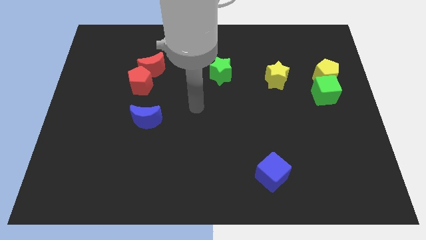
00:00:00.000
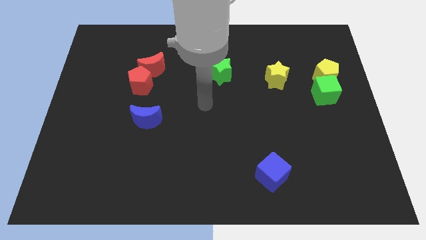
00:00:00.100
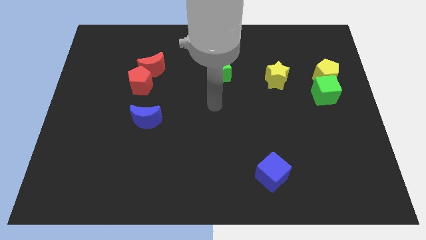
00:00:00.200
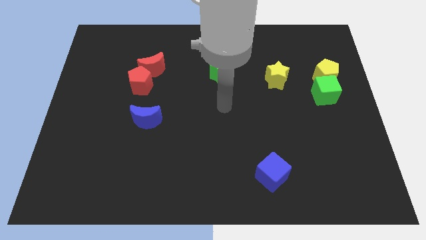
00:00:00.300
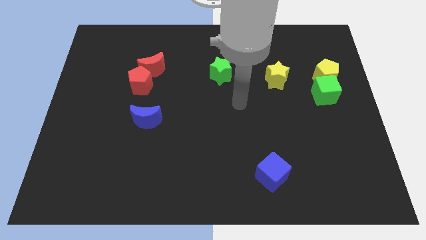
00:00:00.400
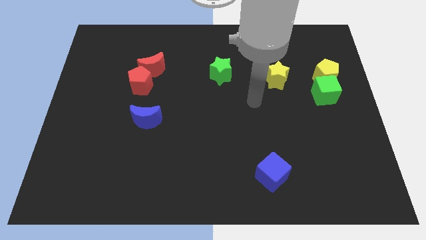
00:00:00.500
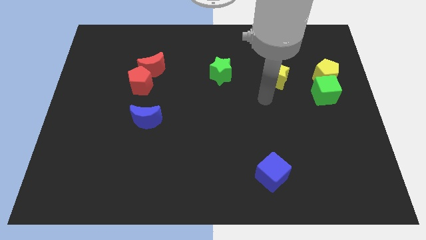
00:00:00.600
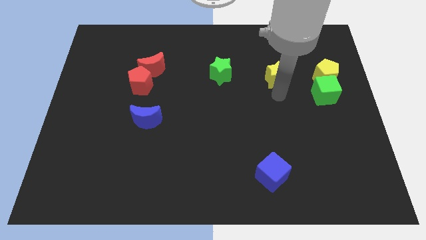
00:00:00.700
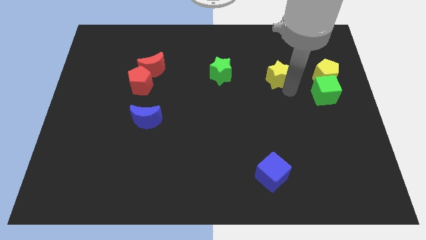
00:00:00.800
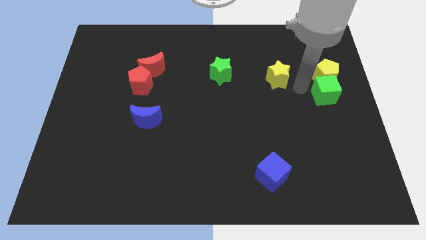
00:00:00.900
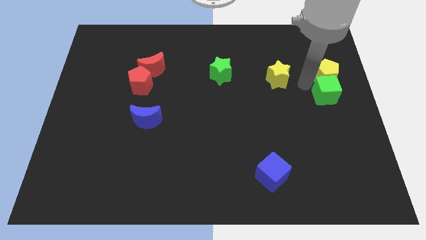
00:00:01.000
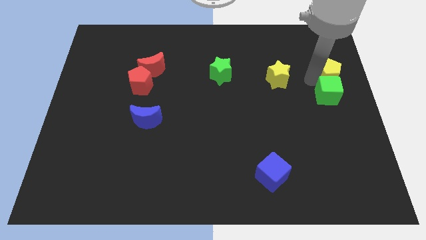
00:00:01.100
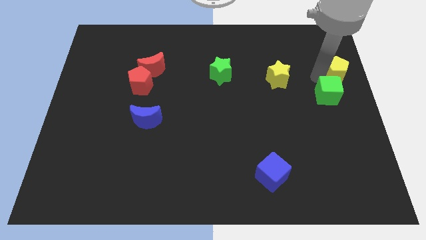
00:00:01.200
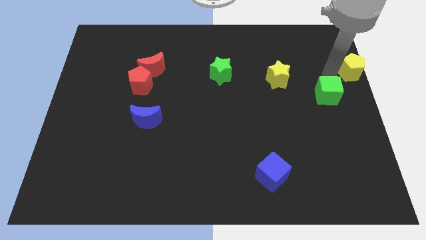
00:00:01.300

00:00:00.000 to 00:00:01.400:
separate the green cube from the yellow pentagon

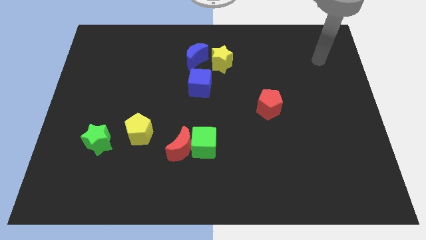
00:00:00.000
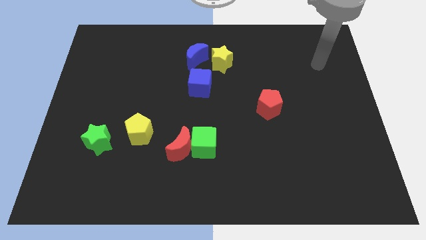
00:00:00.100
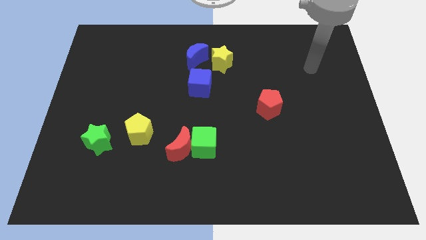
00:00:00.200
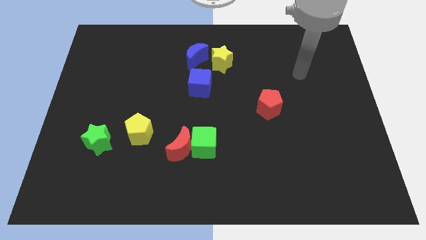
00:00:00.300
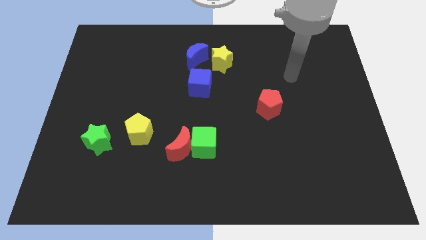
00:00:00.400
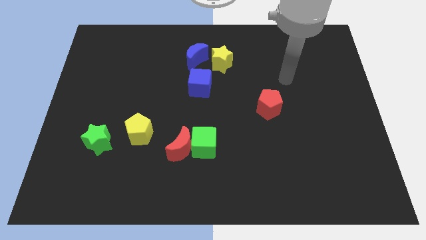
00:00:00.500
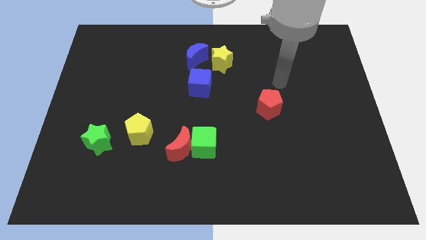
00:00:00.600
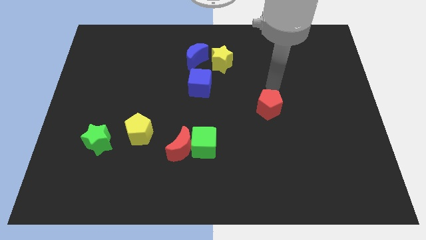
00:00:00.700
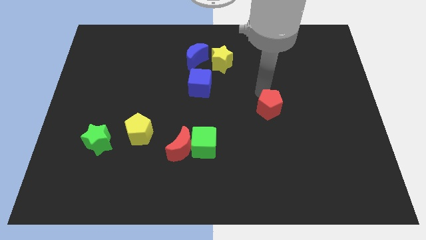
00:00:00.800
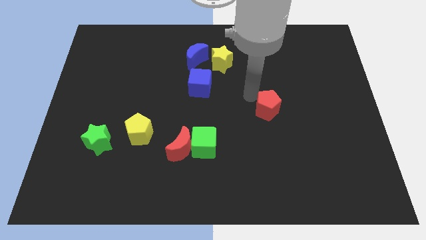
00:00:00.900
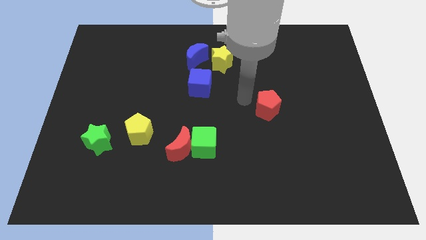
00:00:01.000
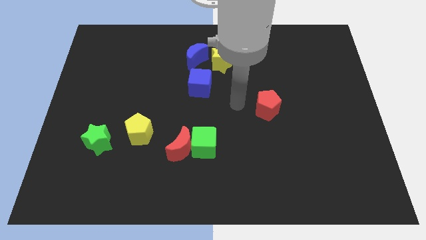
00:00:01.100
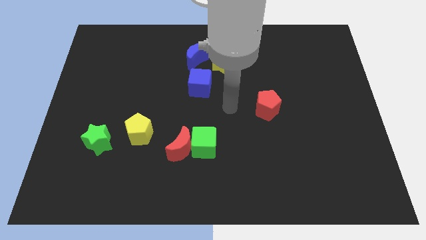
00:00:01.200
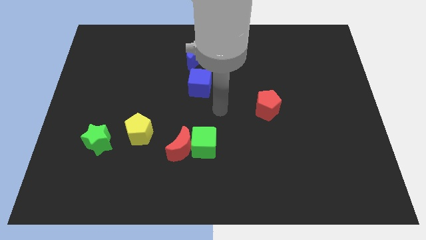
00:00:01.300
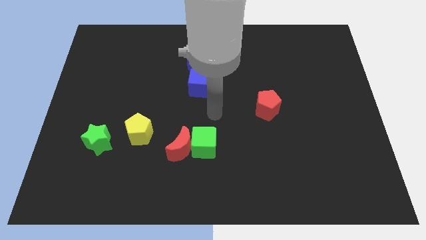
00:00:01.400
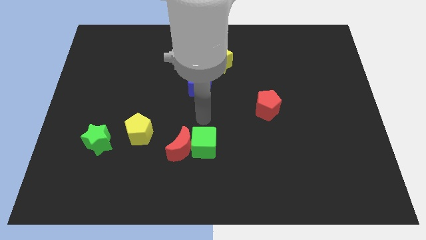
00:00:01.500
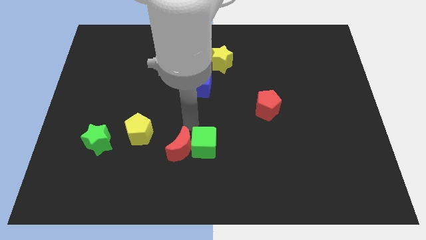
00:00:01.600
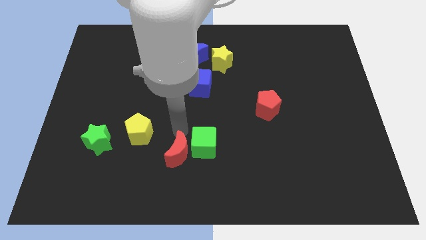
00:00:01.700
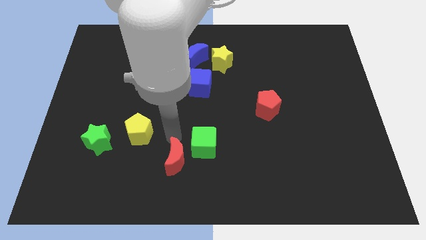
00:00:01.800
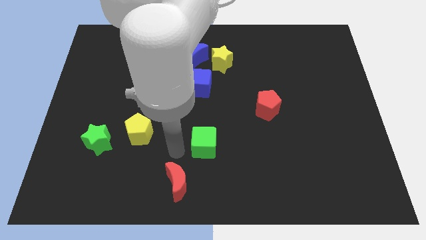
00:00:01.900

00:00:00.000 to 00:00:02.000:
separate the green cube from the red moon

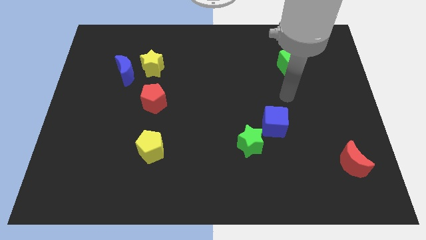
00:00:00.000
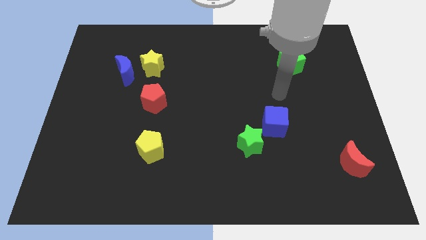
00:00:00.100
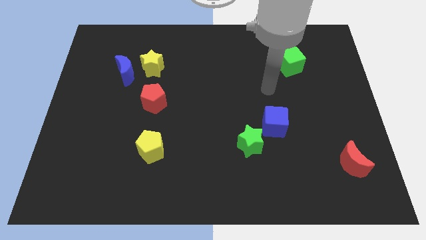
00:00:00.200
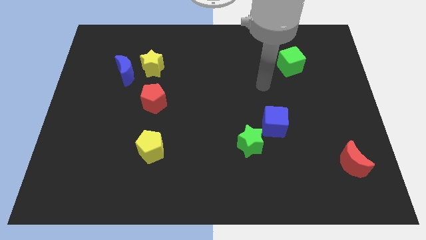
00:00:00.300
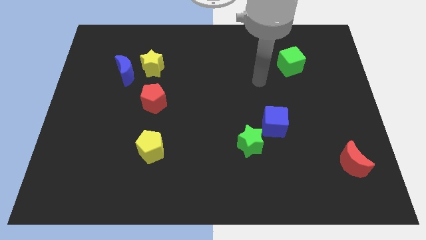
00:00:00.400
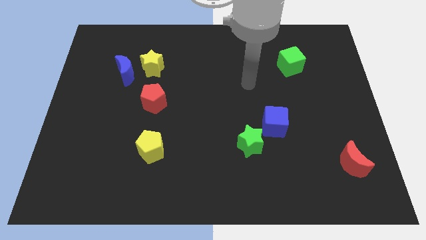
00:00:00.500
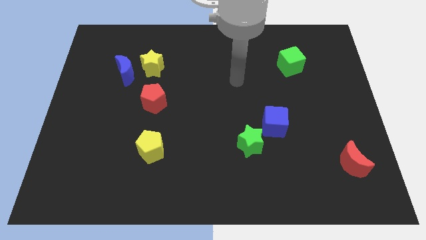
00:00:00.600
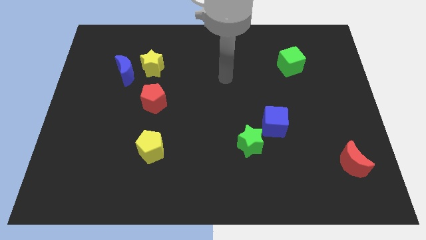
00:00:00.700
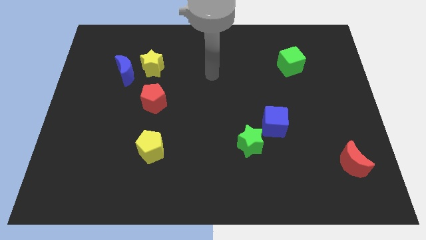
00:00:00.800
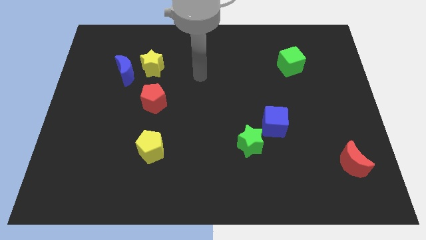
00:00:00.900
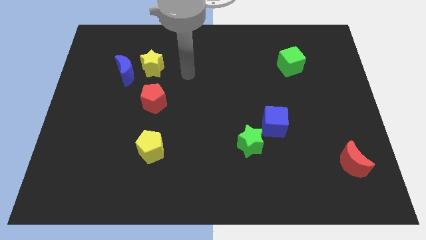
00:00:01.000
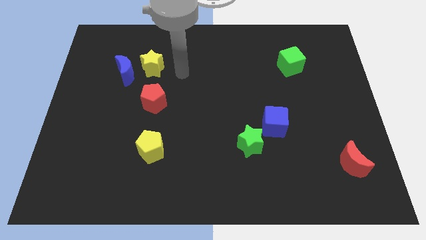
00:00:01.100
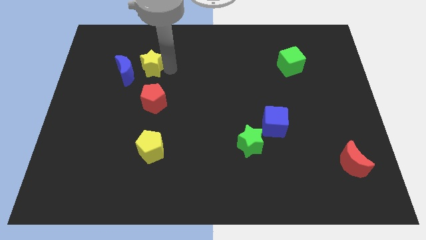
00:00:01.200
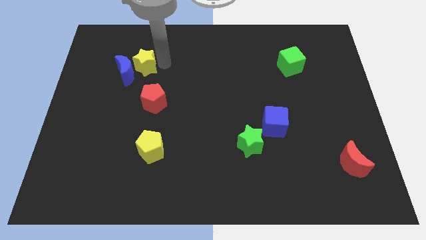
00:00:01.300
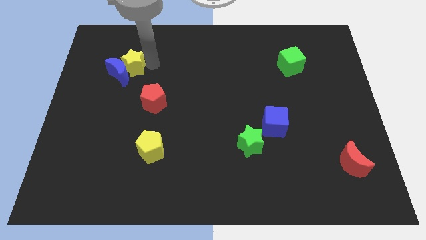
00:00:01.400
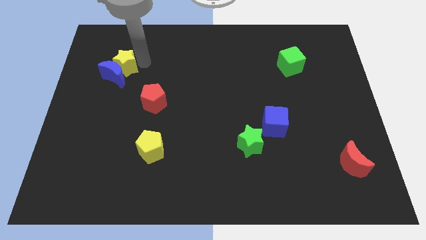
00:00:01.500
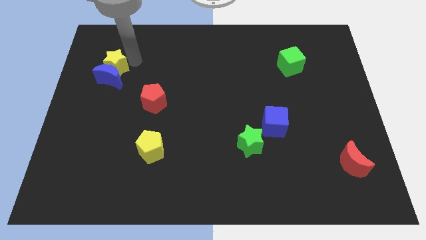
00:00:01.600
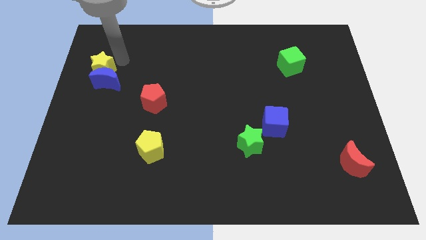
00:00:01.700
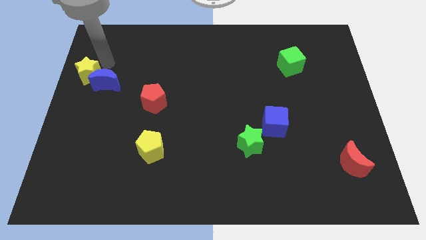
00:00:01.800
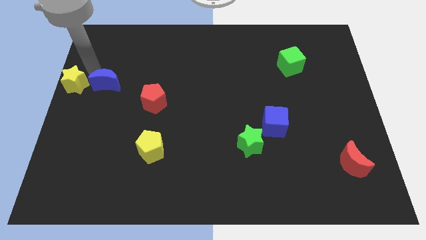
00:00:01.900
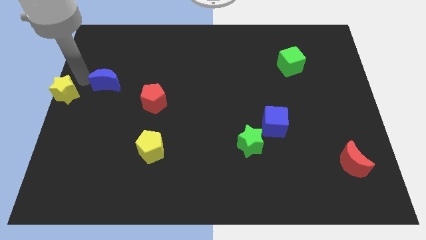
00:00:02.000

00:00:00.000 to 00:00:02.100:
pull the blue moon apart from the yellow star

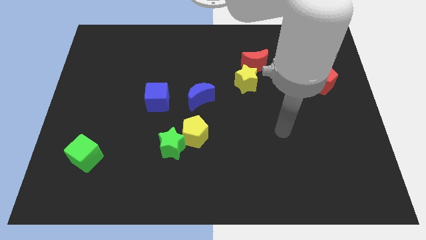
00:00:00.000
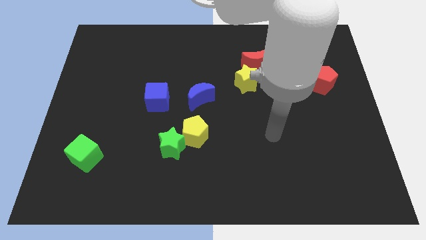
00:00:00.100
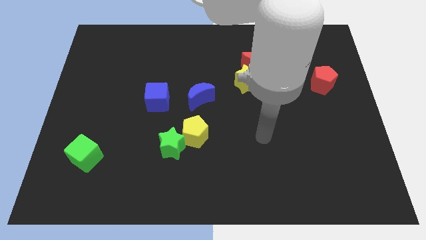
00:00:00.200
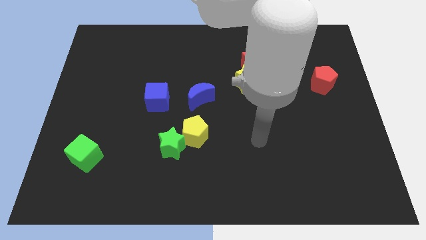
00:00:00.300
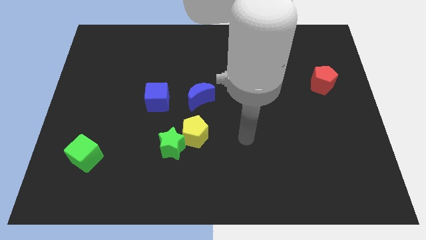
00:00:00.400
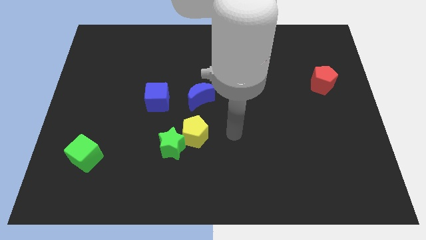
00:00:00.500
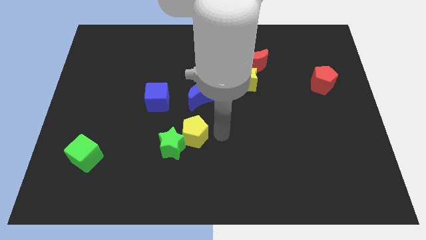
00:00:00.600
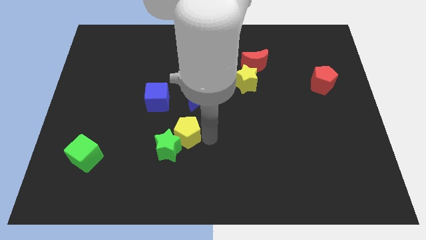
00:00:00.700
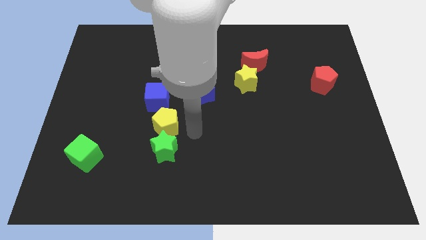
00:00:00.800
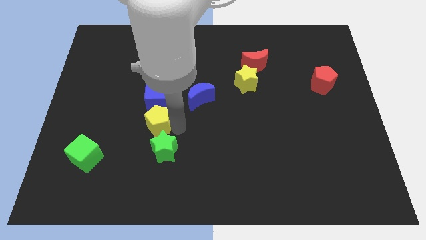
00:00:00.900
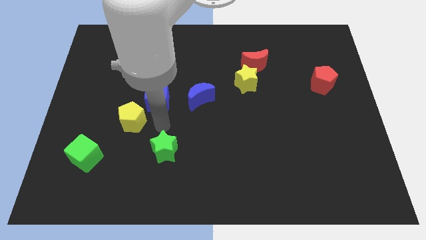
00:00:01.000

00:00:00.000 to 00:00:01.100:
move the green star away from the yellow pentagon

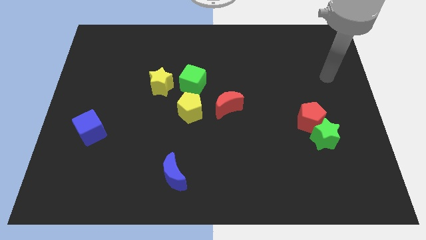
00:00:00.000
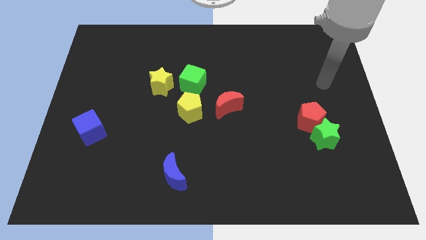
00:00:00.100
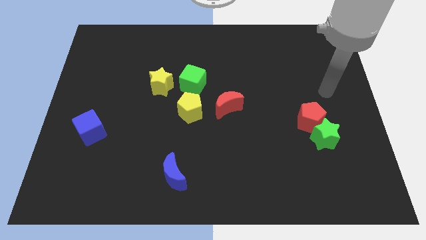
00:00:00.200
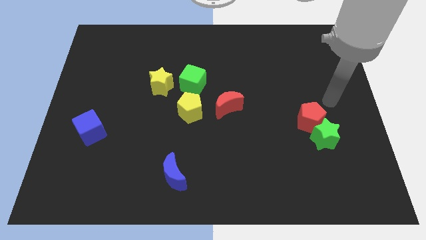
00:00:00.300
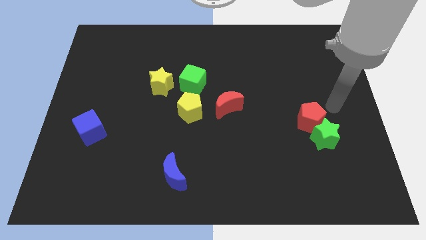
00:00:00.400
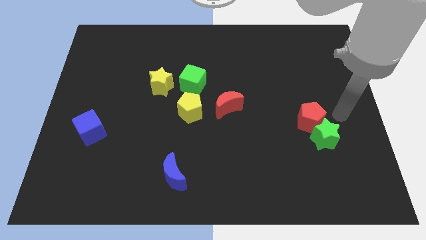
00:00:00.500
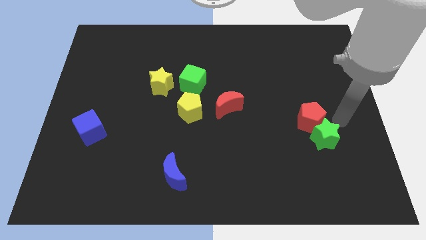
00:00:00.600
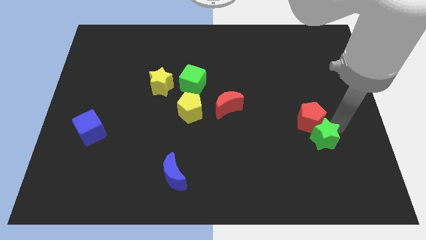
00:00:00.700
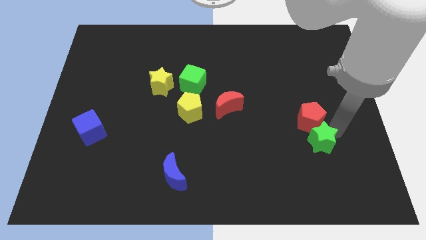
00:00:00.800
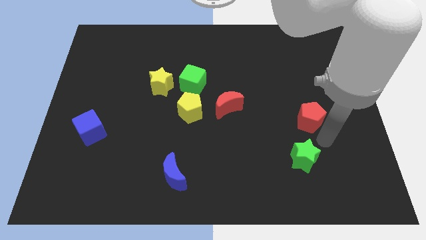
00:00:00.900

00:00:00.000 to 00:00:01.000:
pull the red pentagon apart from the green star

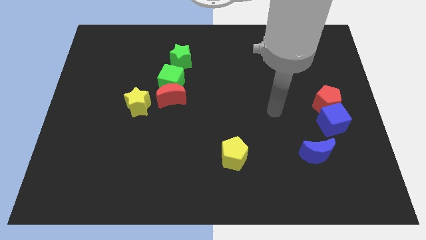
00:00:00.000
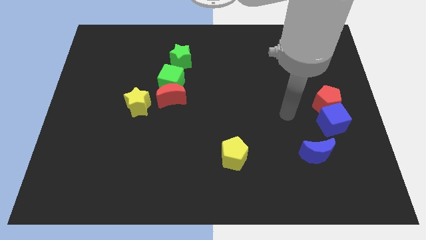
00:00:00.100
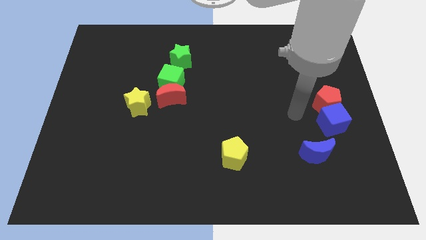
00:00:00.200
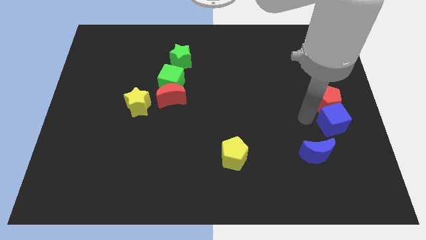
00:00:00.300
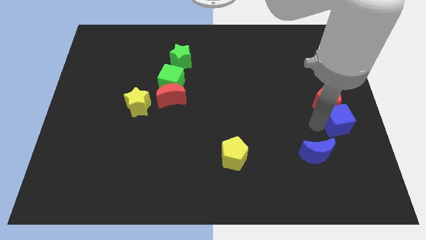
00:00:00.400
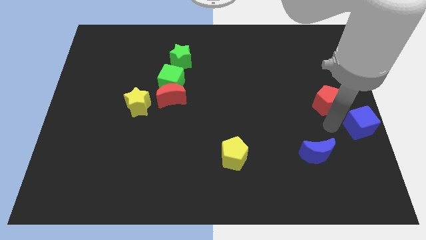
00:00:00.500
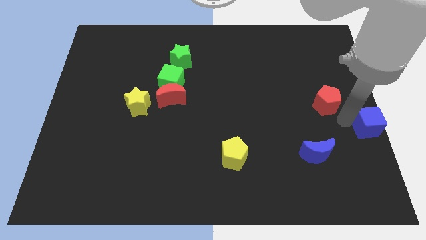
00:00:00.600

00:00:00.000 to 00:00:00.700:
separate the red pentagon from the blue cube

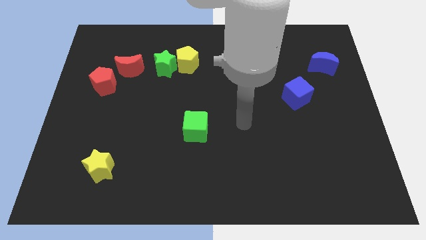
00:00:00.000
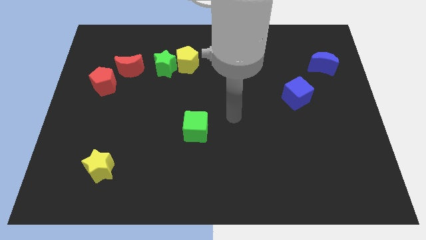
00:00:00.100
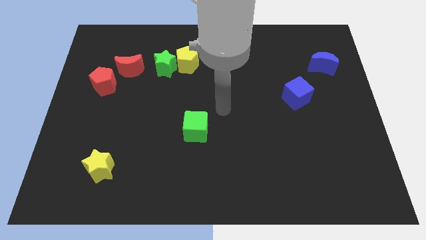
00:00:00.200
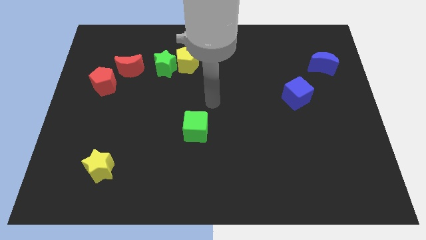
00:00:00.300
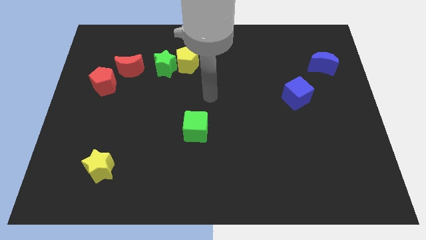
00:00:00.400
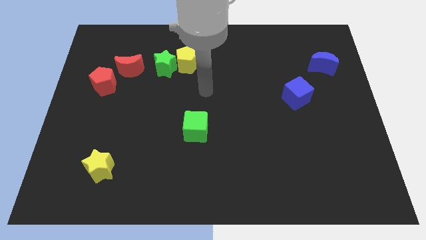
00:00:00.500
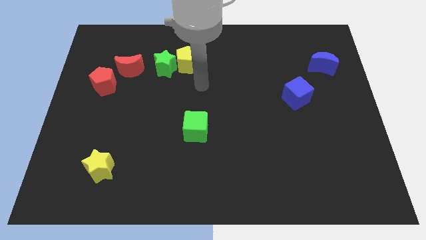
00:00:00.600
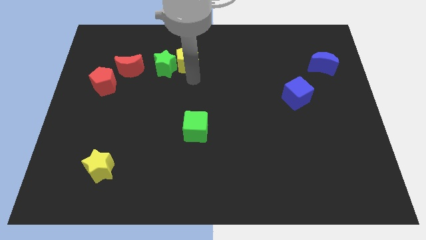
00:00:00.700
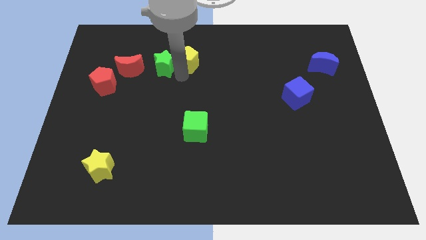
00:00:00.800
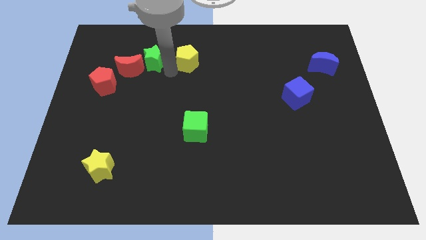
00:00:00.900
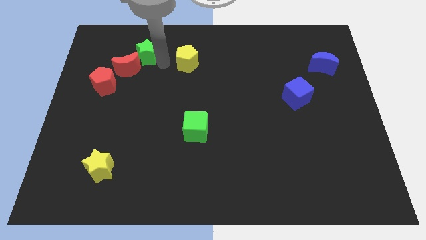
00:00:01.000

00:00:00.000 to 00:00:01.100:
move the yellow pentagon away from the green star

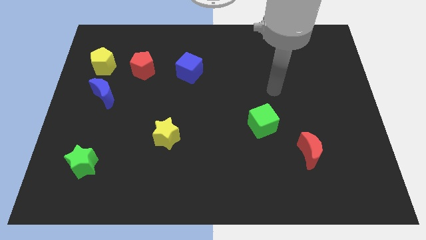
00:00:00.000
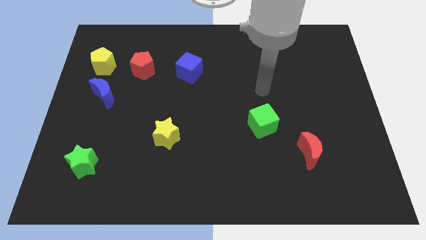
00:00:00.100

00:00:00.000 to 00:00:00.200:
separate the blue moon from the yellow pentagon
